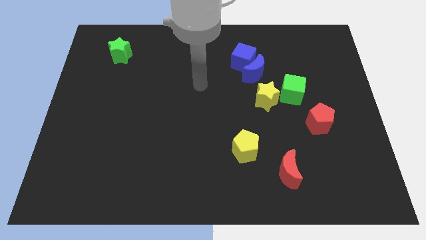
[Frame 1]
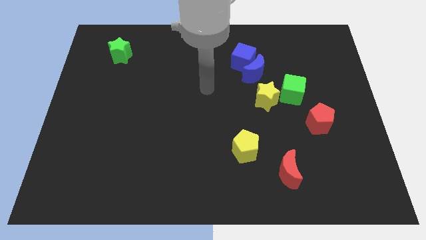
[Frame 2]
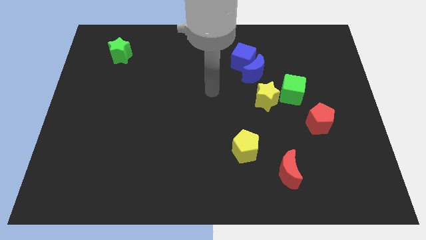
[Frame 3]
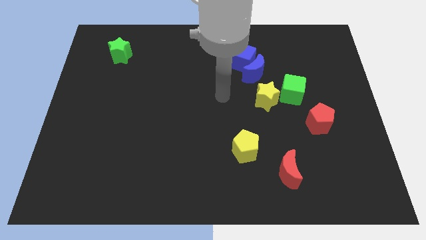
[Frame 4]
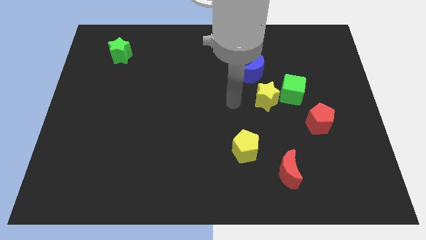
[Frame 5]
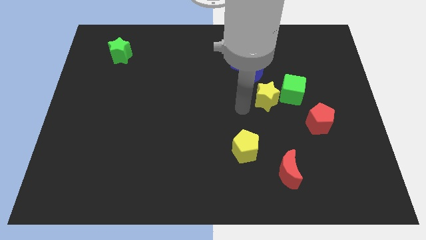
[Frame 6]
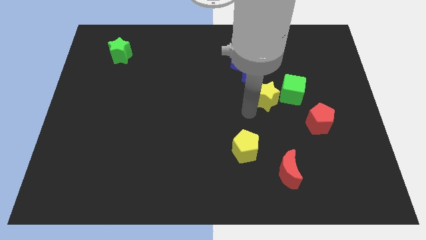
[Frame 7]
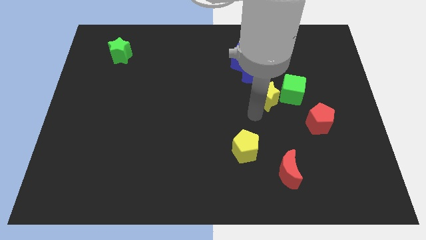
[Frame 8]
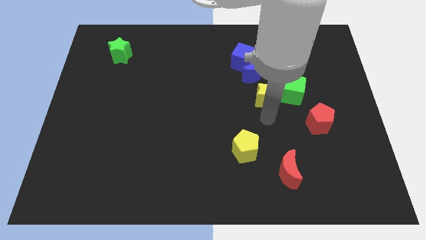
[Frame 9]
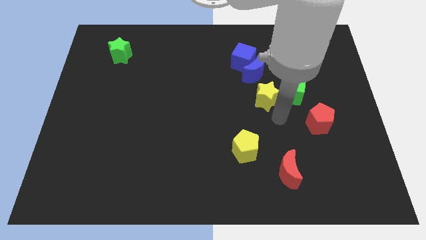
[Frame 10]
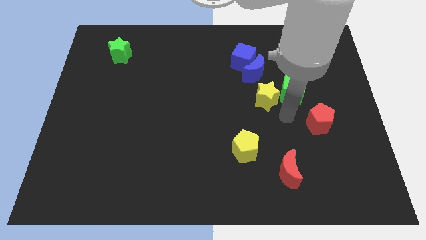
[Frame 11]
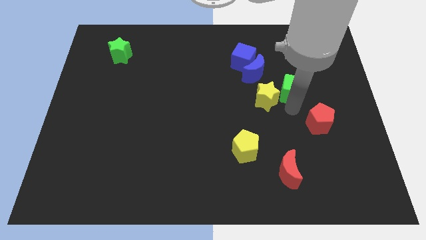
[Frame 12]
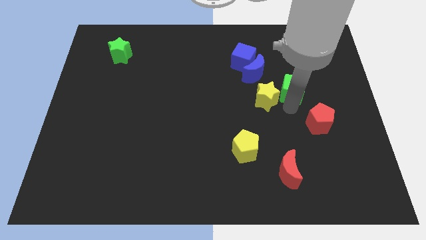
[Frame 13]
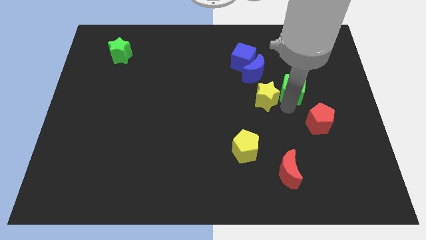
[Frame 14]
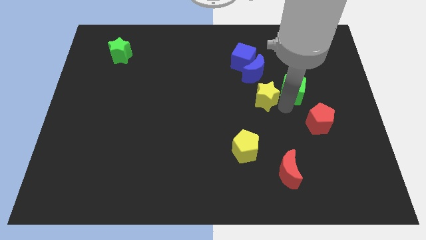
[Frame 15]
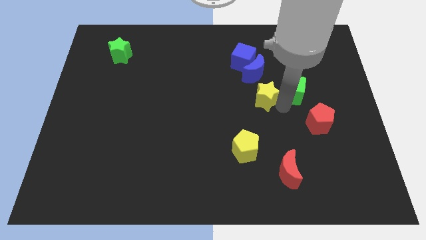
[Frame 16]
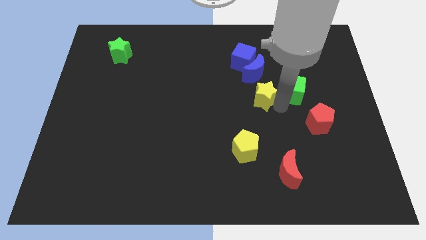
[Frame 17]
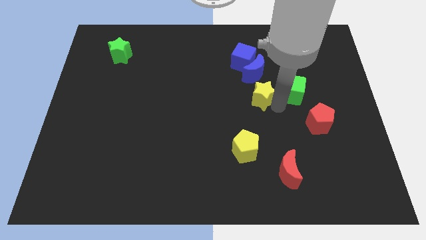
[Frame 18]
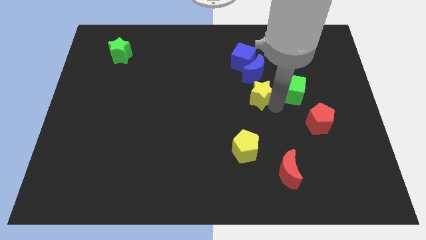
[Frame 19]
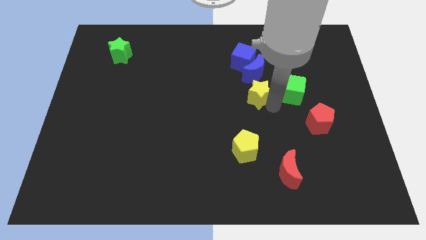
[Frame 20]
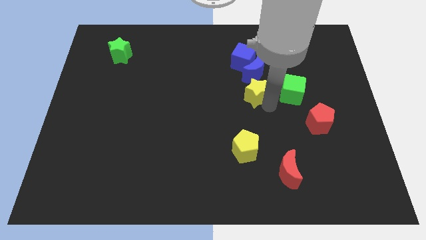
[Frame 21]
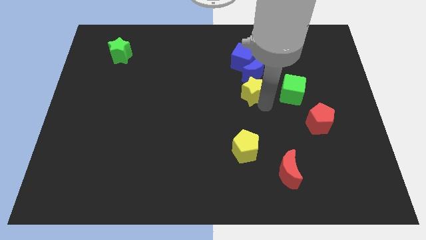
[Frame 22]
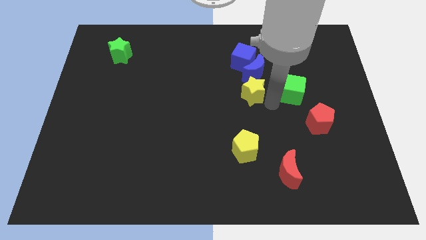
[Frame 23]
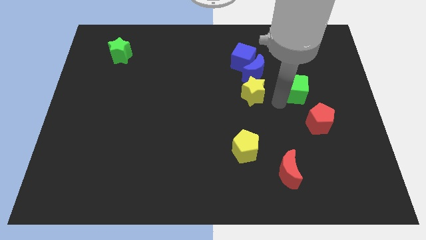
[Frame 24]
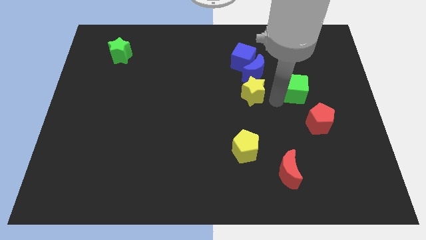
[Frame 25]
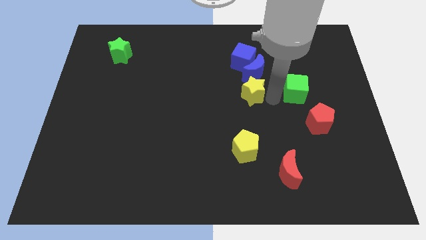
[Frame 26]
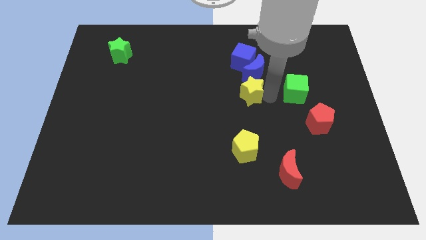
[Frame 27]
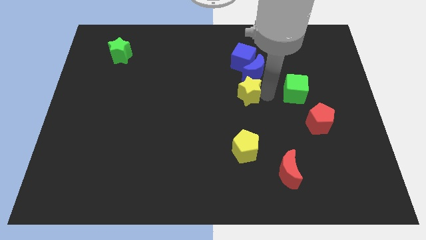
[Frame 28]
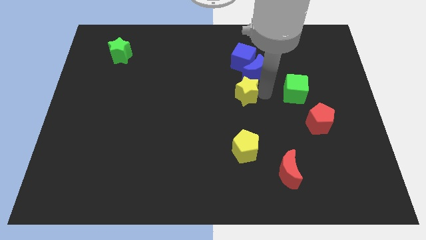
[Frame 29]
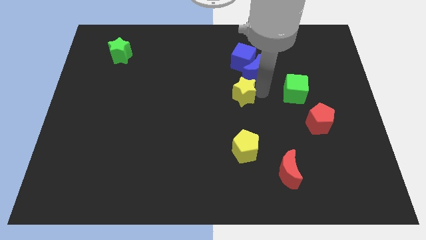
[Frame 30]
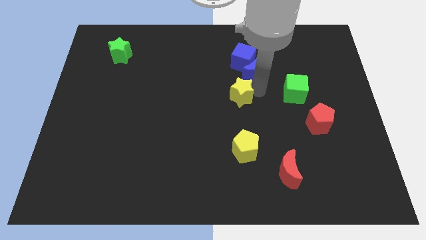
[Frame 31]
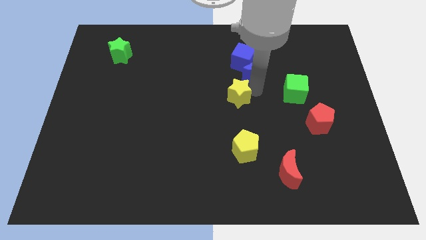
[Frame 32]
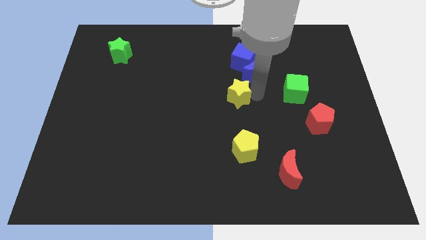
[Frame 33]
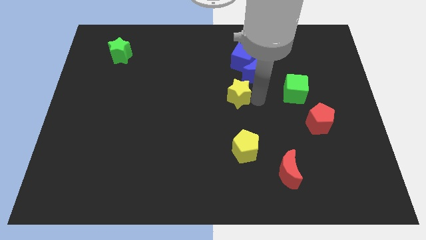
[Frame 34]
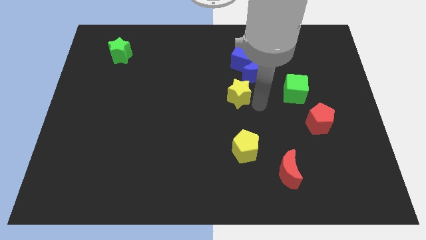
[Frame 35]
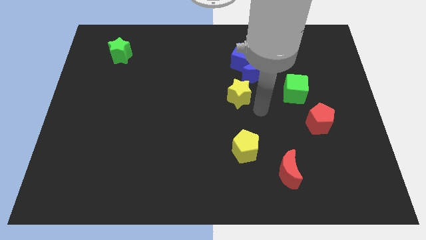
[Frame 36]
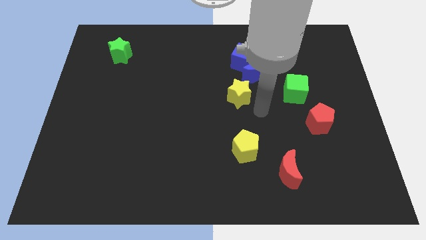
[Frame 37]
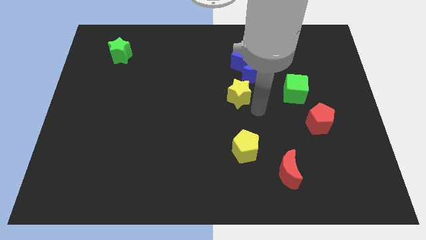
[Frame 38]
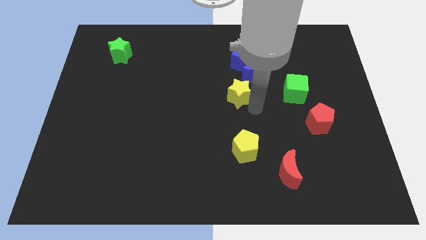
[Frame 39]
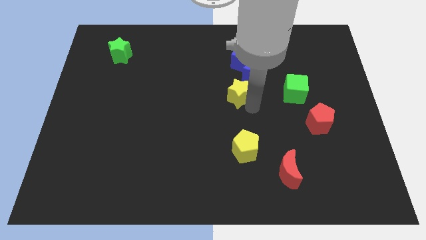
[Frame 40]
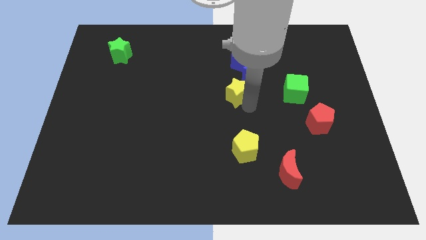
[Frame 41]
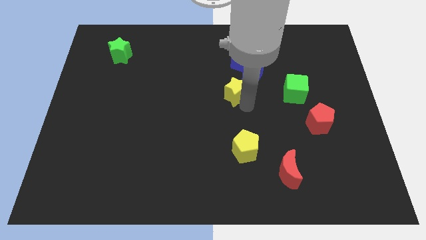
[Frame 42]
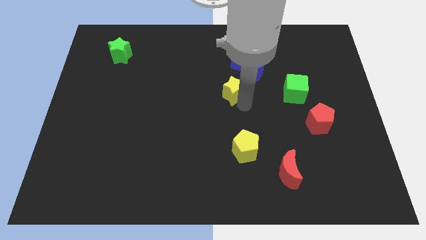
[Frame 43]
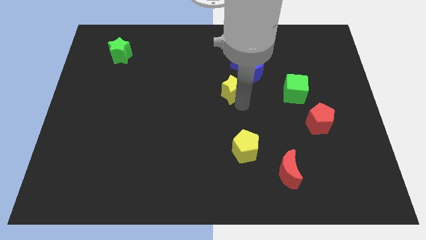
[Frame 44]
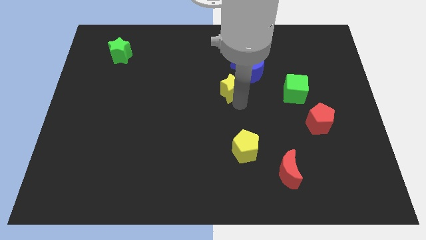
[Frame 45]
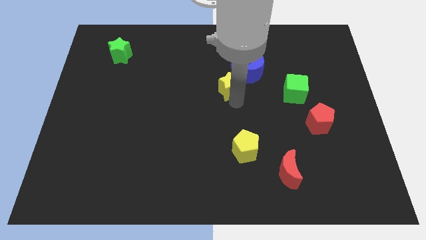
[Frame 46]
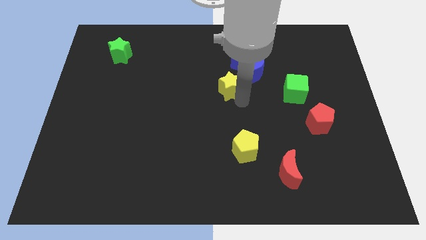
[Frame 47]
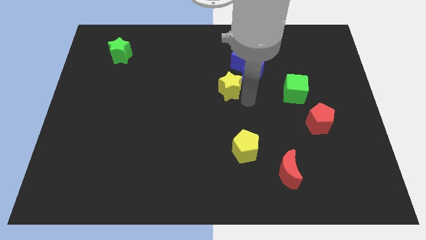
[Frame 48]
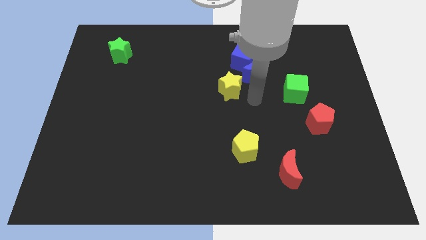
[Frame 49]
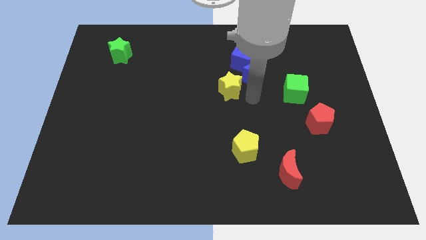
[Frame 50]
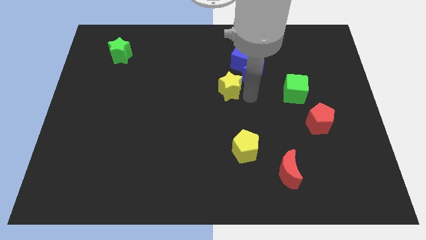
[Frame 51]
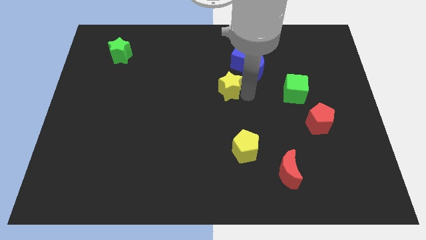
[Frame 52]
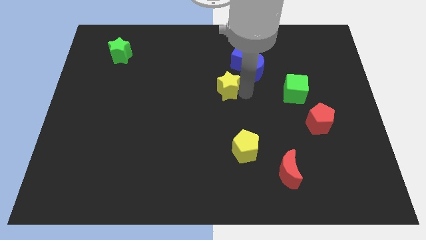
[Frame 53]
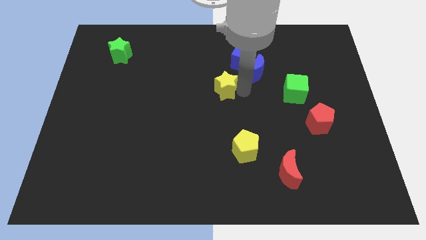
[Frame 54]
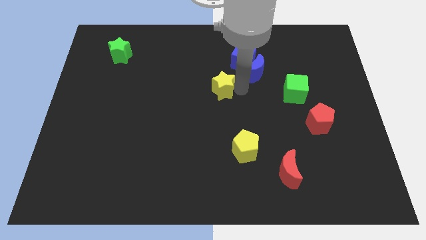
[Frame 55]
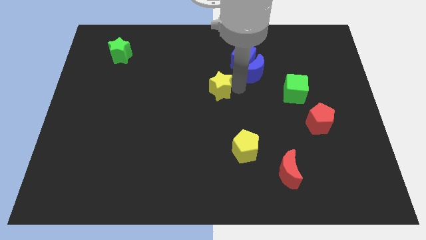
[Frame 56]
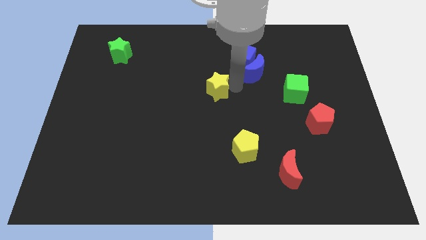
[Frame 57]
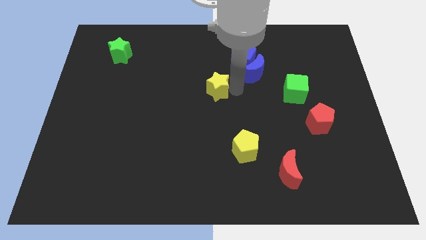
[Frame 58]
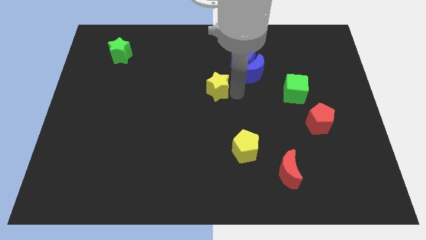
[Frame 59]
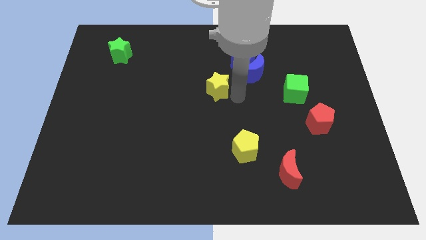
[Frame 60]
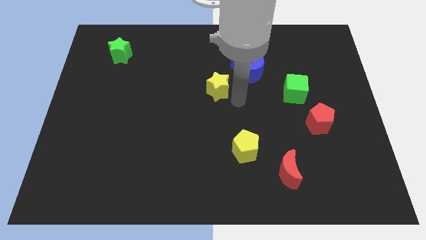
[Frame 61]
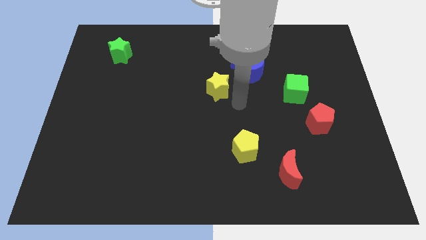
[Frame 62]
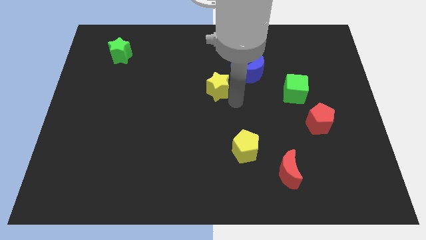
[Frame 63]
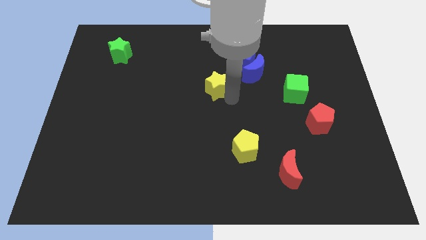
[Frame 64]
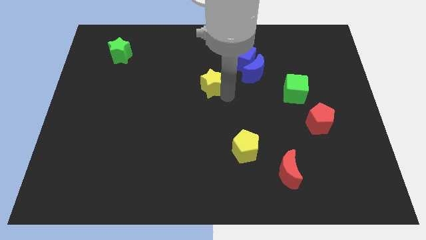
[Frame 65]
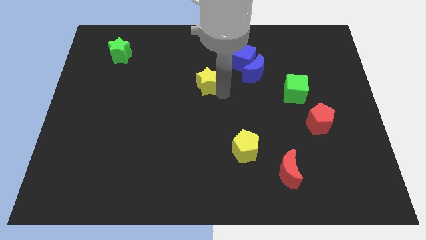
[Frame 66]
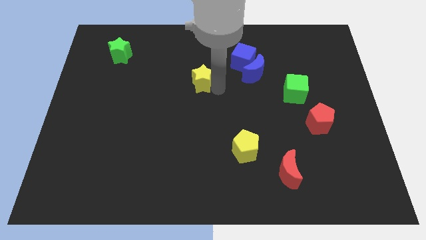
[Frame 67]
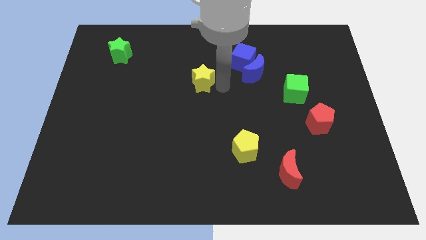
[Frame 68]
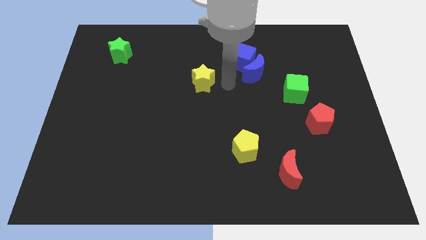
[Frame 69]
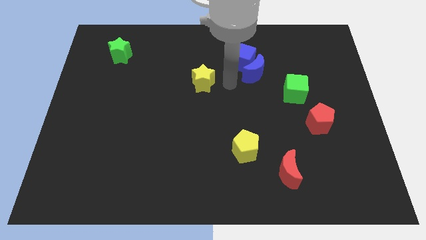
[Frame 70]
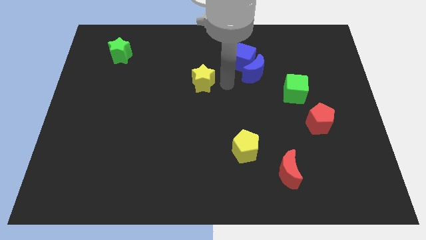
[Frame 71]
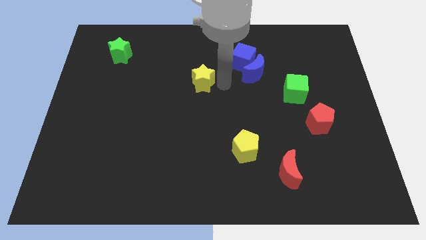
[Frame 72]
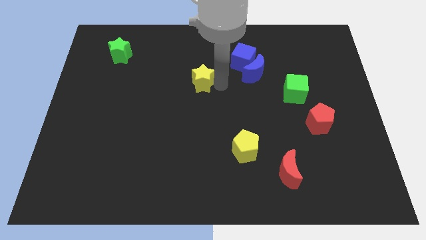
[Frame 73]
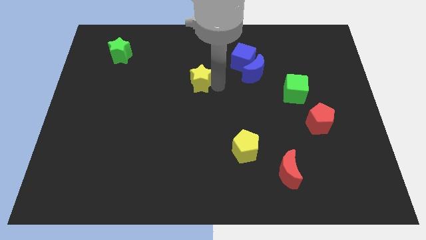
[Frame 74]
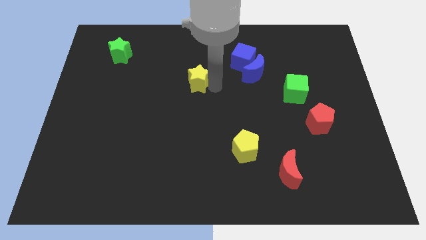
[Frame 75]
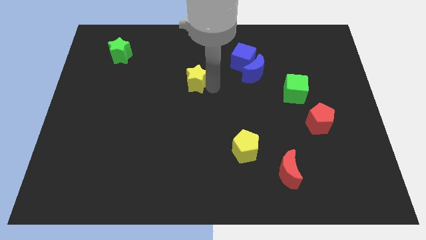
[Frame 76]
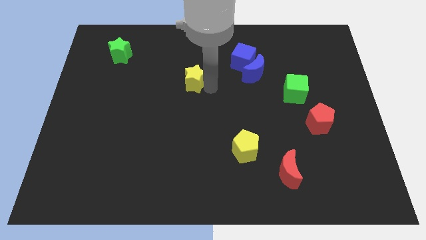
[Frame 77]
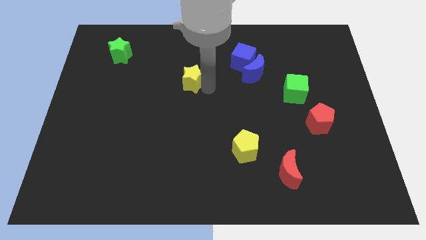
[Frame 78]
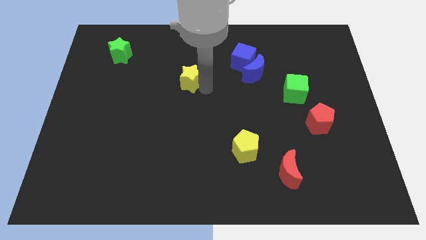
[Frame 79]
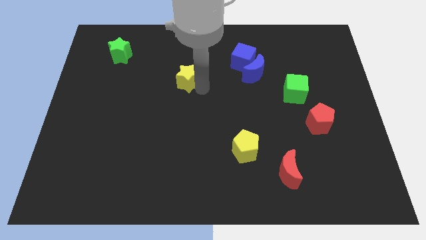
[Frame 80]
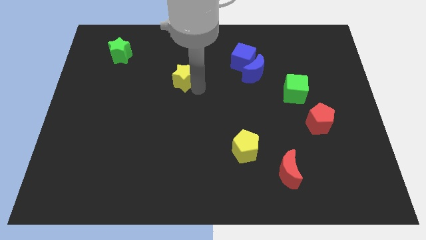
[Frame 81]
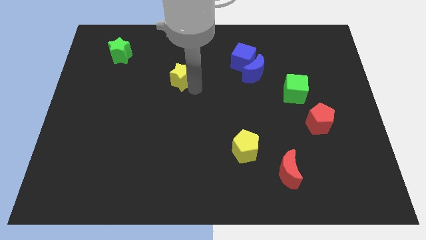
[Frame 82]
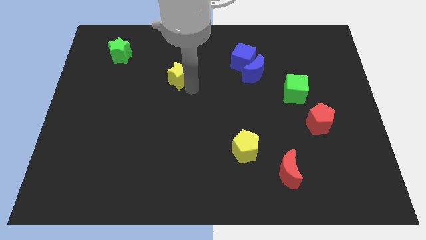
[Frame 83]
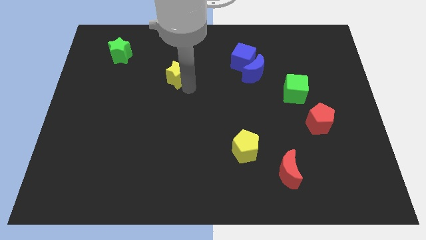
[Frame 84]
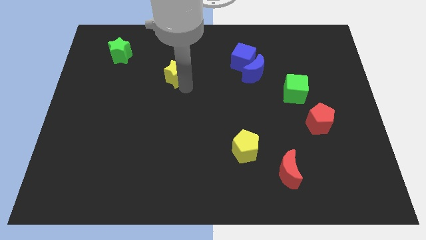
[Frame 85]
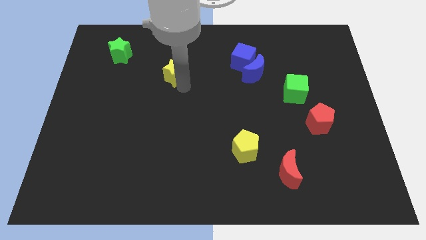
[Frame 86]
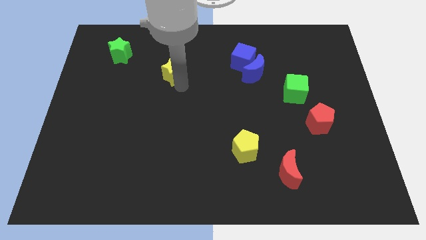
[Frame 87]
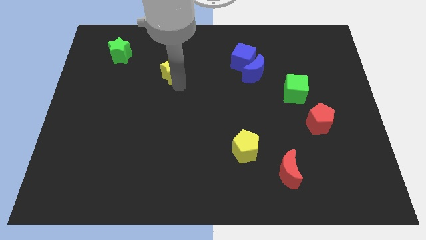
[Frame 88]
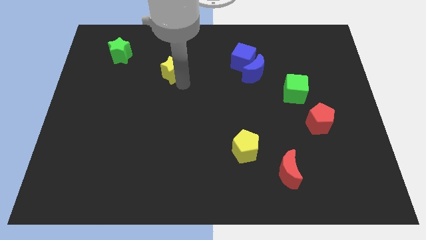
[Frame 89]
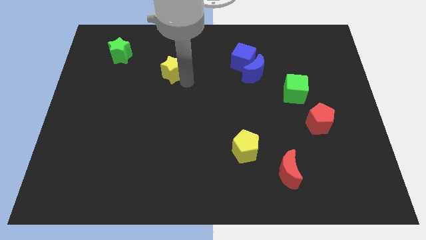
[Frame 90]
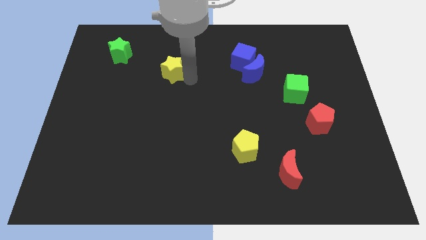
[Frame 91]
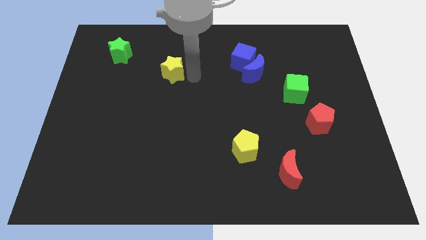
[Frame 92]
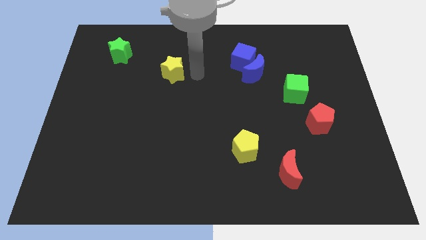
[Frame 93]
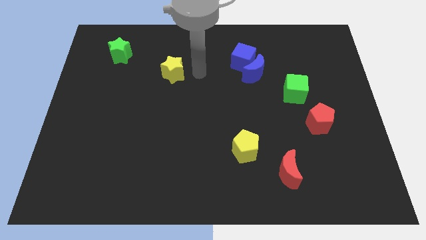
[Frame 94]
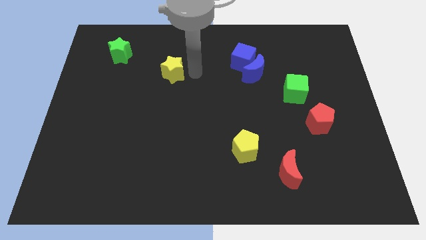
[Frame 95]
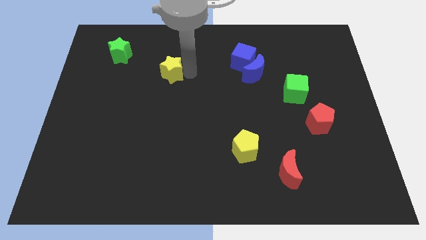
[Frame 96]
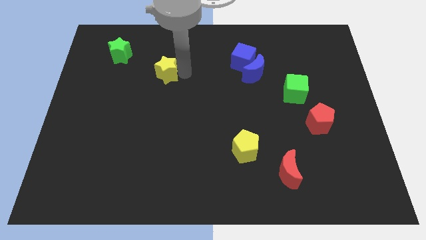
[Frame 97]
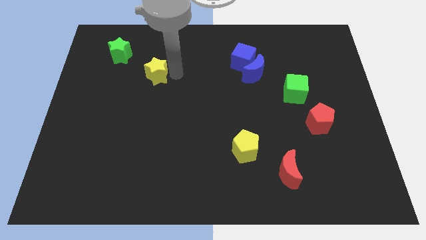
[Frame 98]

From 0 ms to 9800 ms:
slide the yellow star to the bottom right side of the green star
